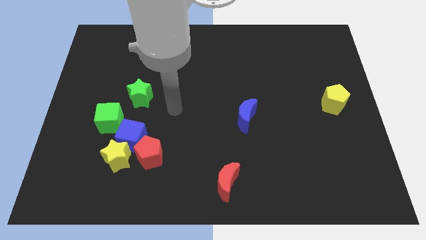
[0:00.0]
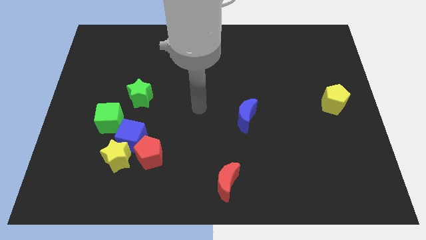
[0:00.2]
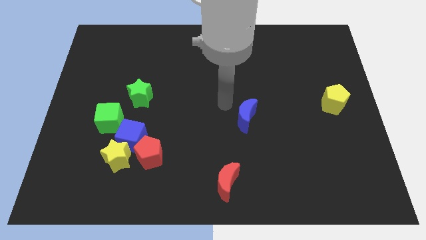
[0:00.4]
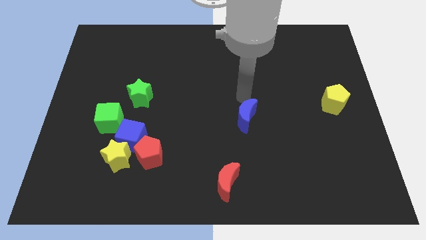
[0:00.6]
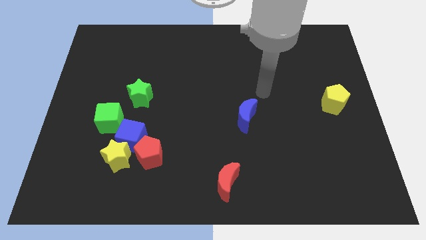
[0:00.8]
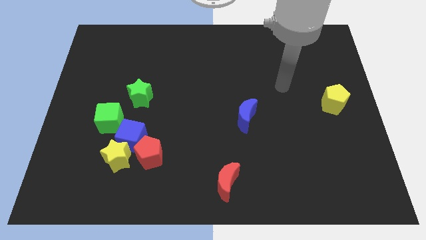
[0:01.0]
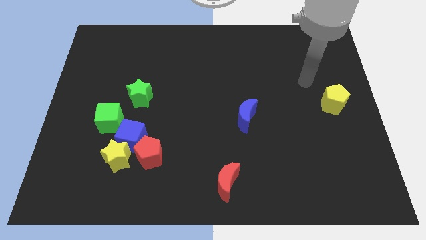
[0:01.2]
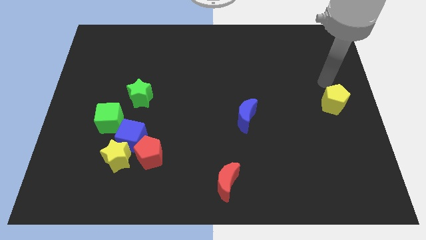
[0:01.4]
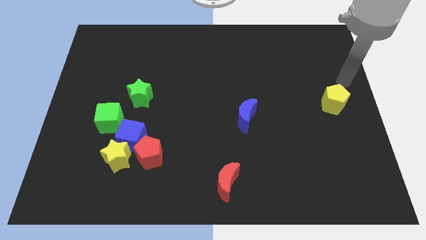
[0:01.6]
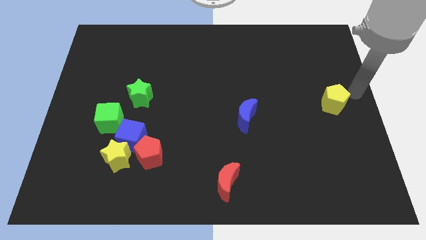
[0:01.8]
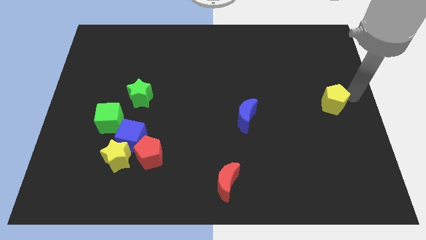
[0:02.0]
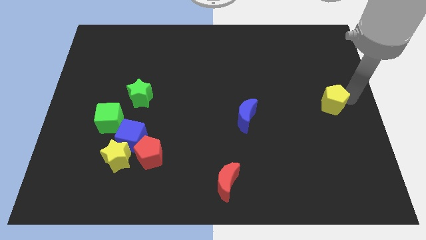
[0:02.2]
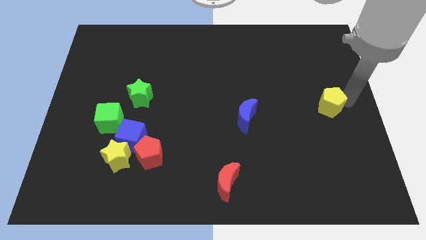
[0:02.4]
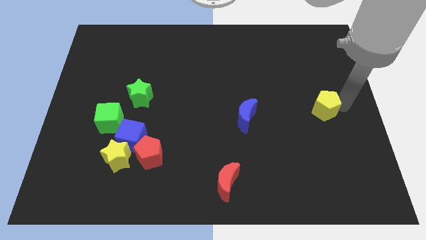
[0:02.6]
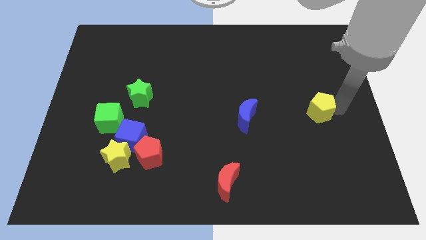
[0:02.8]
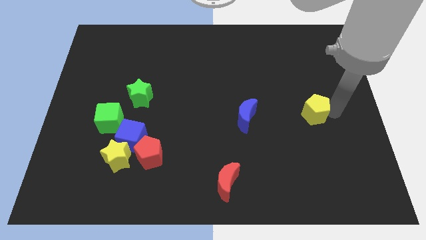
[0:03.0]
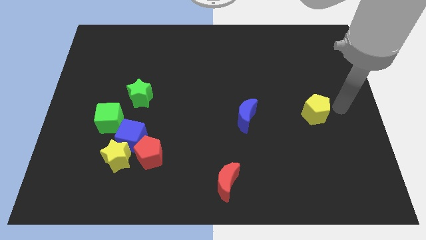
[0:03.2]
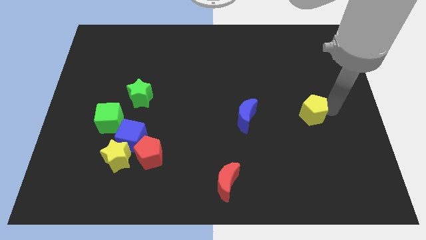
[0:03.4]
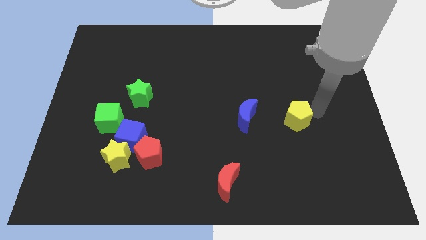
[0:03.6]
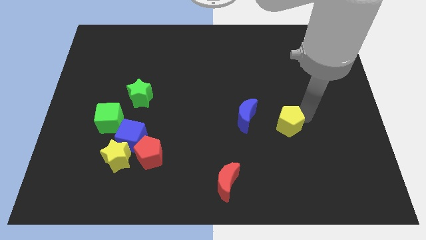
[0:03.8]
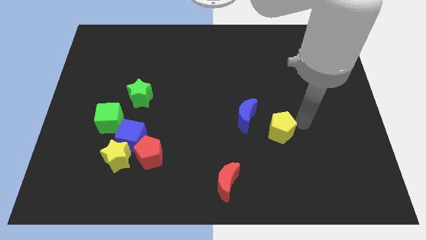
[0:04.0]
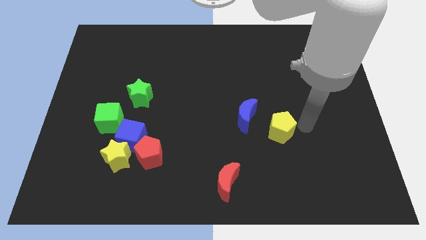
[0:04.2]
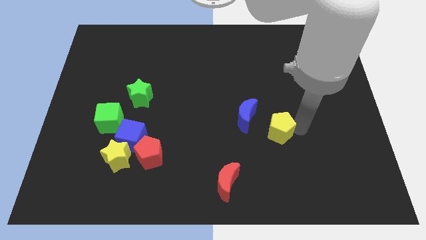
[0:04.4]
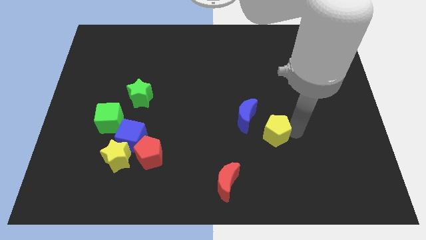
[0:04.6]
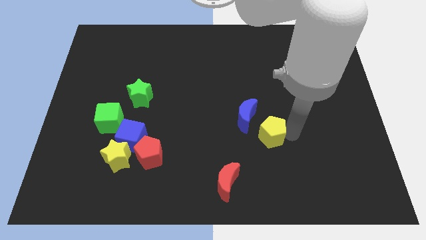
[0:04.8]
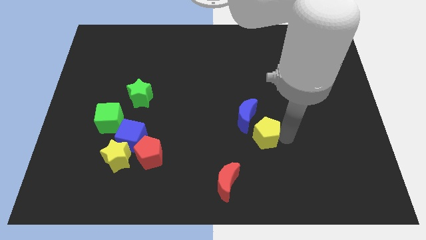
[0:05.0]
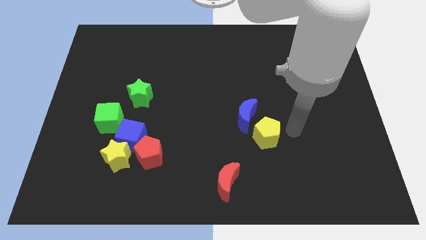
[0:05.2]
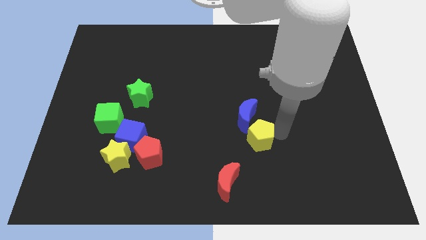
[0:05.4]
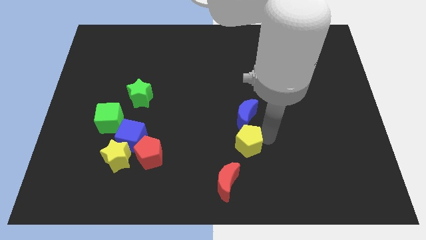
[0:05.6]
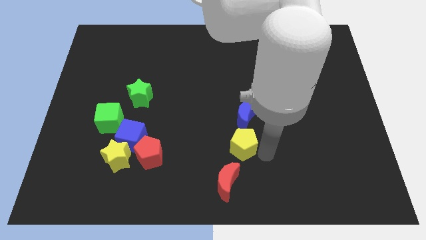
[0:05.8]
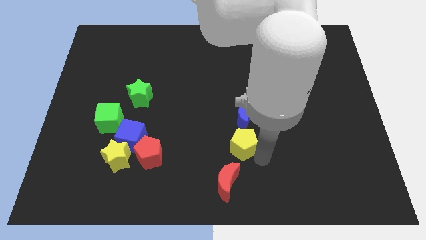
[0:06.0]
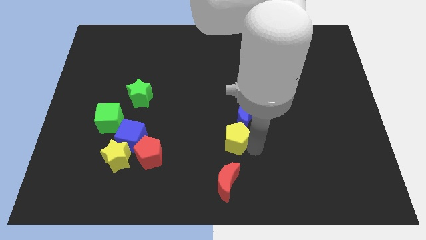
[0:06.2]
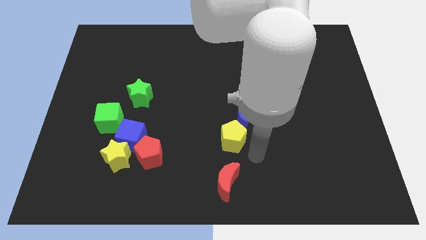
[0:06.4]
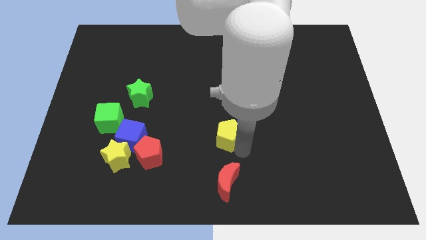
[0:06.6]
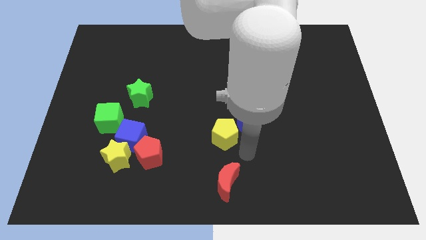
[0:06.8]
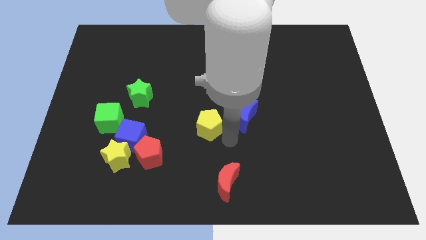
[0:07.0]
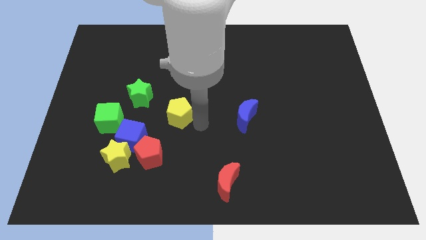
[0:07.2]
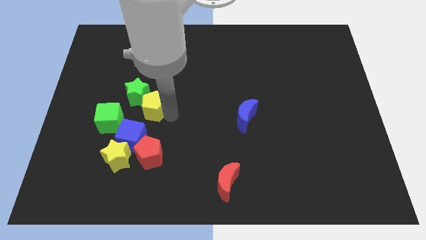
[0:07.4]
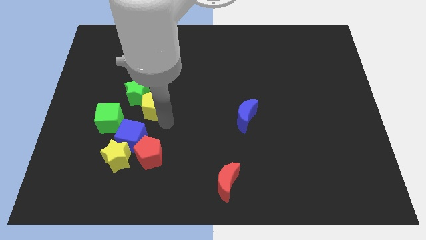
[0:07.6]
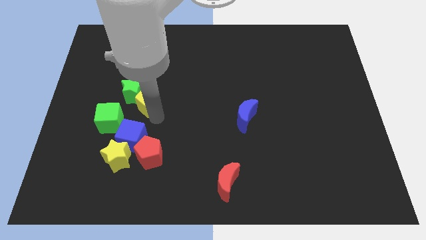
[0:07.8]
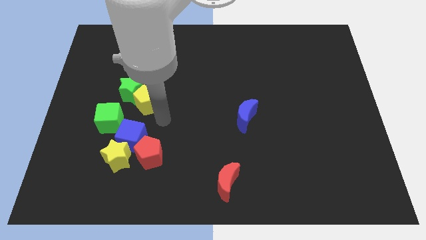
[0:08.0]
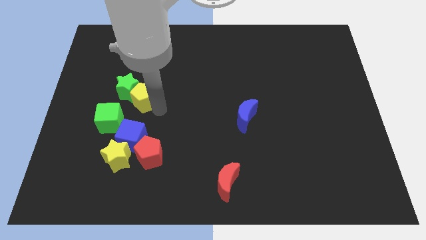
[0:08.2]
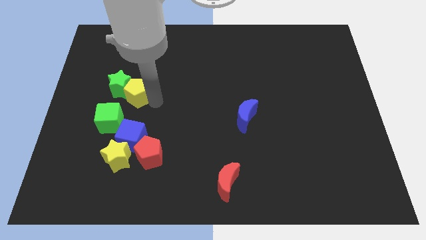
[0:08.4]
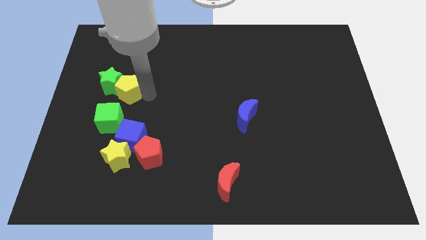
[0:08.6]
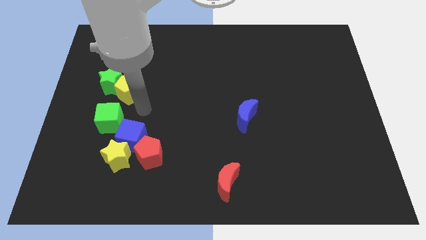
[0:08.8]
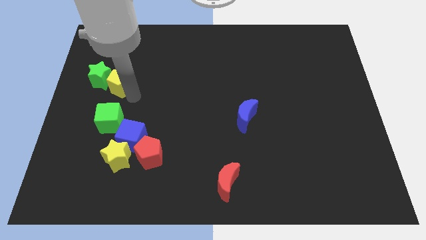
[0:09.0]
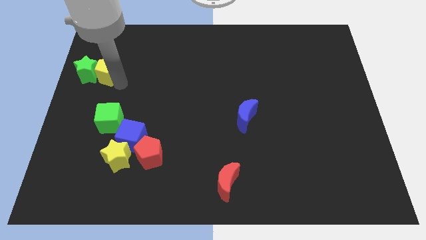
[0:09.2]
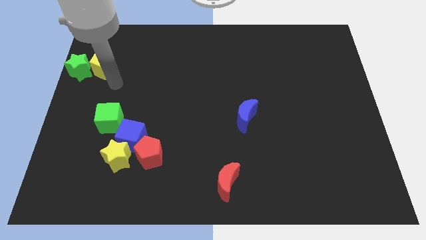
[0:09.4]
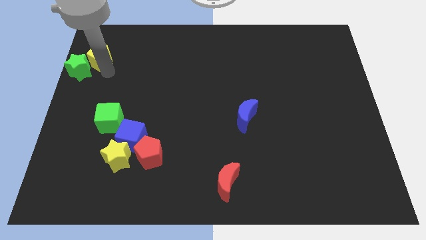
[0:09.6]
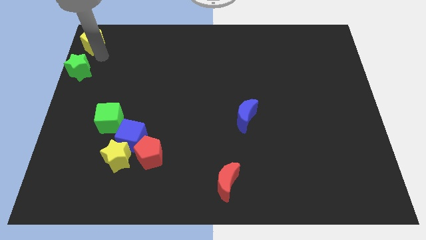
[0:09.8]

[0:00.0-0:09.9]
slide the yellow pentagon to the top left

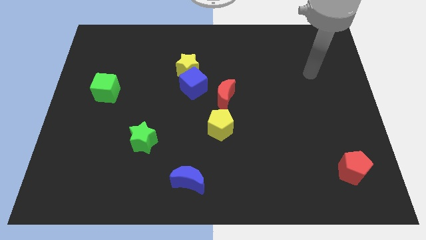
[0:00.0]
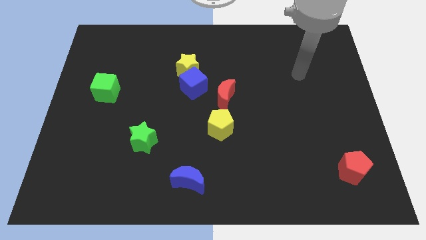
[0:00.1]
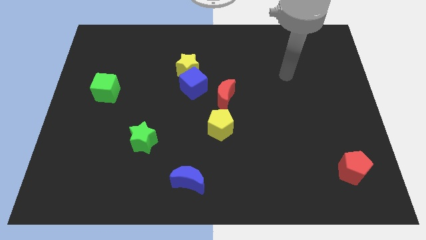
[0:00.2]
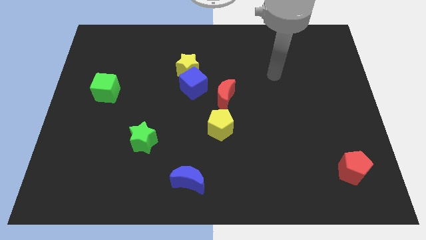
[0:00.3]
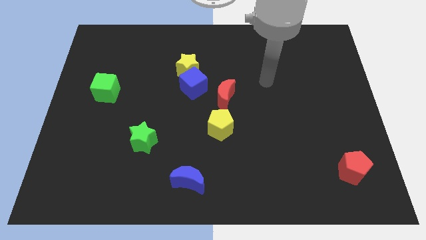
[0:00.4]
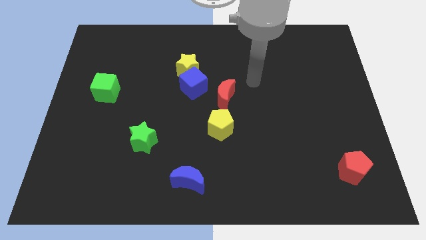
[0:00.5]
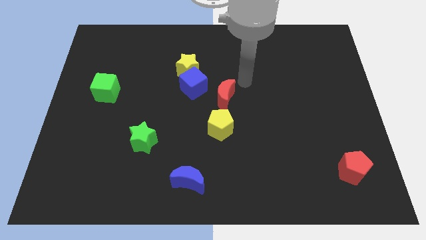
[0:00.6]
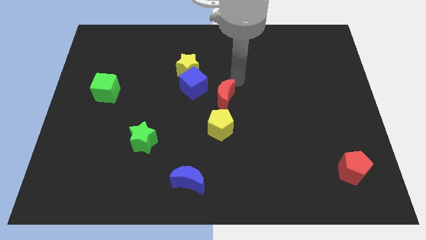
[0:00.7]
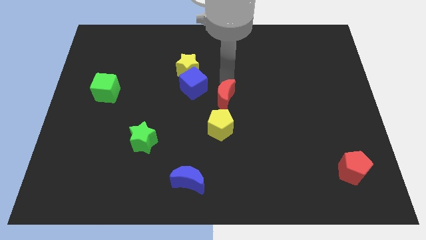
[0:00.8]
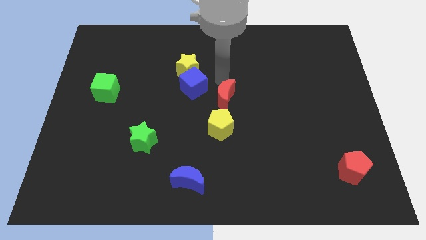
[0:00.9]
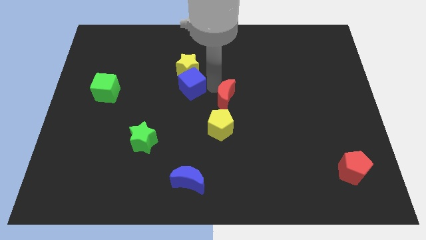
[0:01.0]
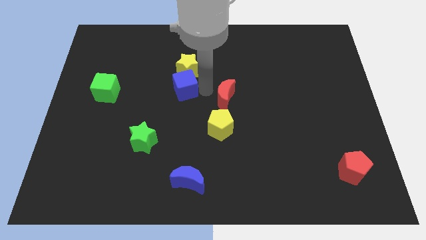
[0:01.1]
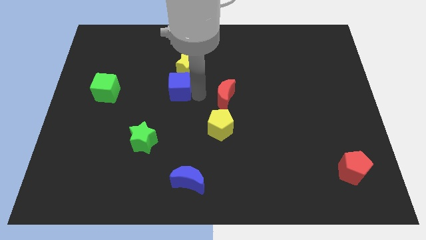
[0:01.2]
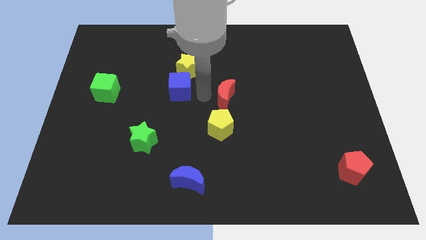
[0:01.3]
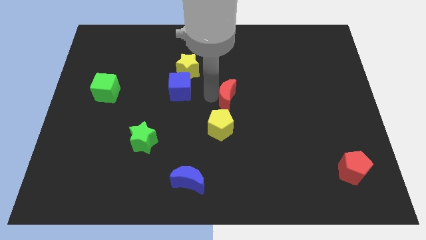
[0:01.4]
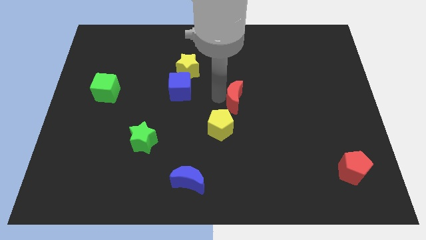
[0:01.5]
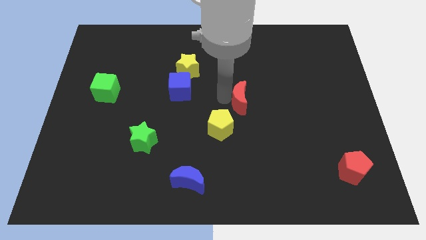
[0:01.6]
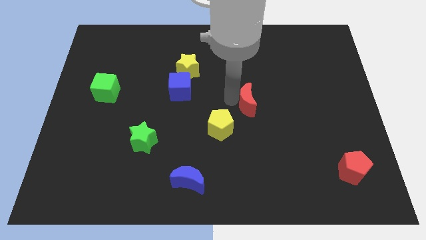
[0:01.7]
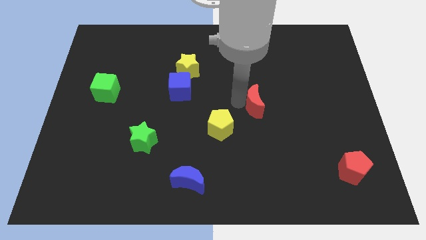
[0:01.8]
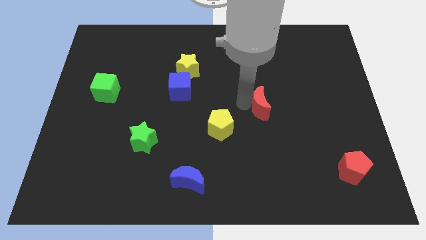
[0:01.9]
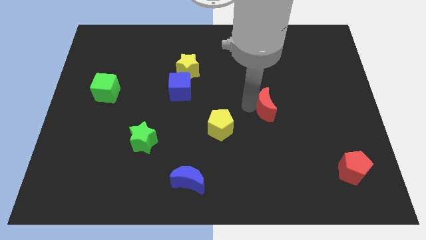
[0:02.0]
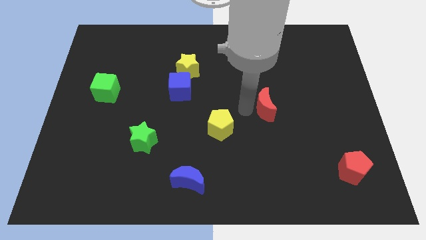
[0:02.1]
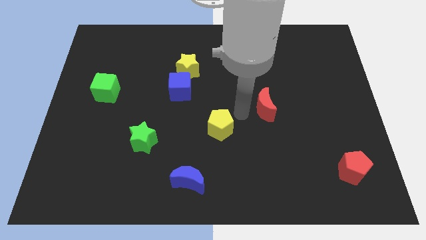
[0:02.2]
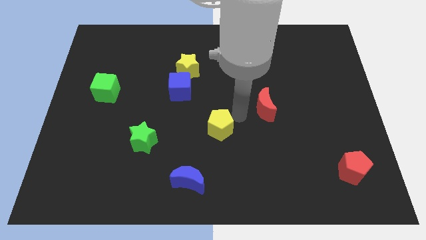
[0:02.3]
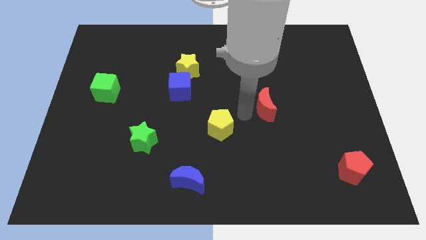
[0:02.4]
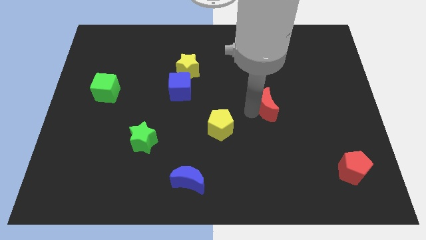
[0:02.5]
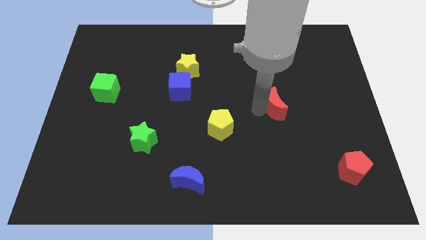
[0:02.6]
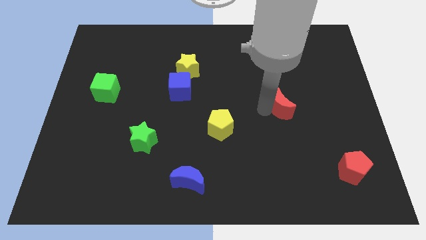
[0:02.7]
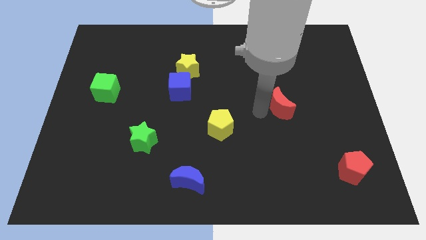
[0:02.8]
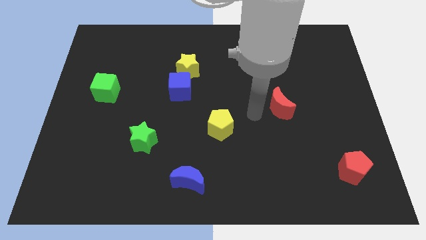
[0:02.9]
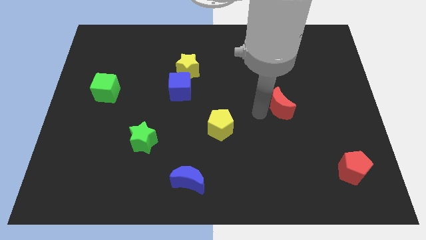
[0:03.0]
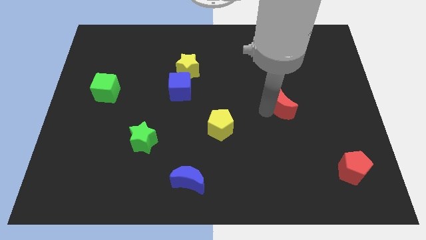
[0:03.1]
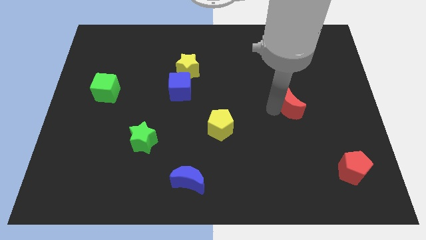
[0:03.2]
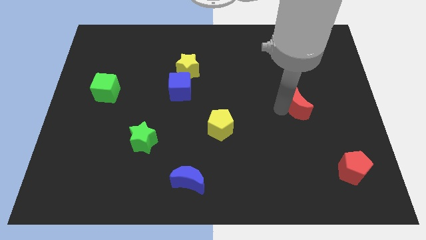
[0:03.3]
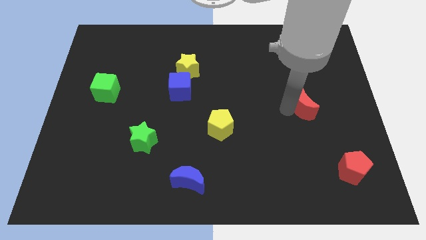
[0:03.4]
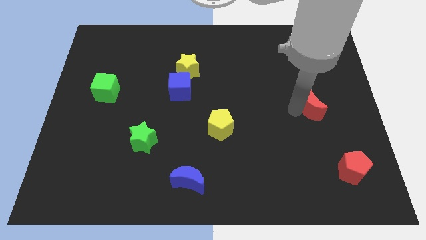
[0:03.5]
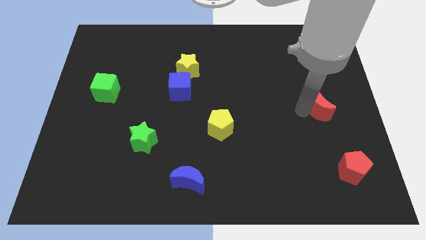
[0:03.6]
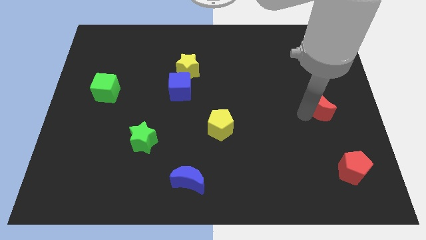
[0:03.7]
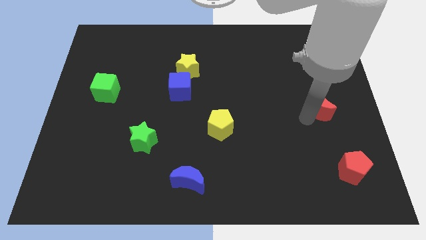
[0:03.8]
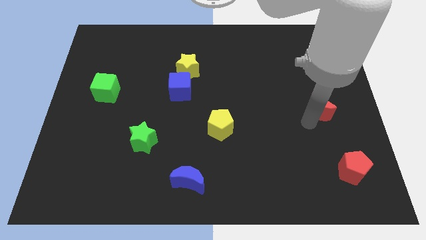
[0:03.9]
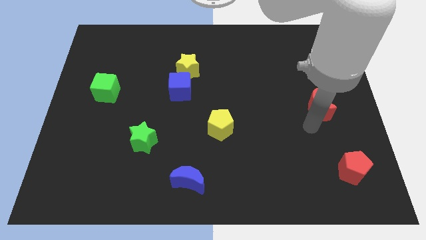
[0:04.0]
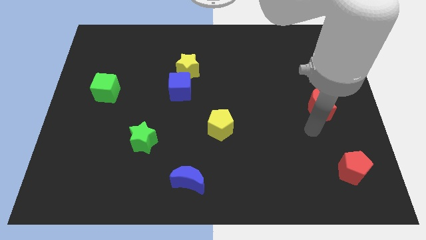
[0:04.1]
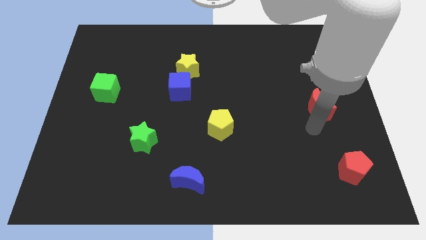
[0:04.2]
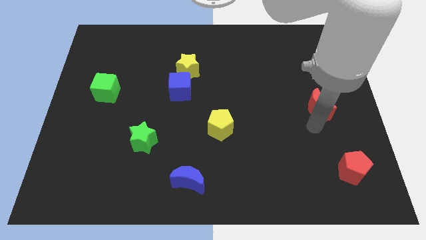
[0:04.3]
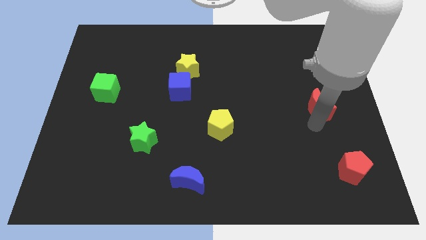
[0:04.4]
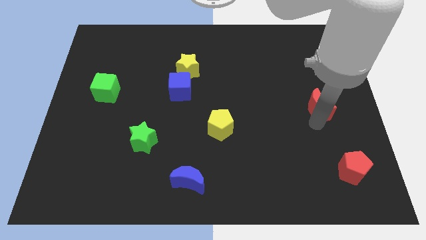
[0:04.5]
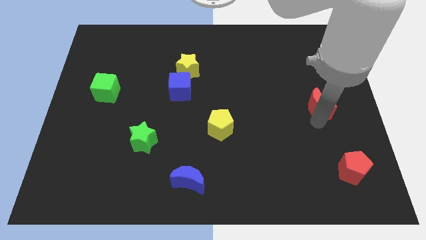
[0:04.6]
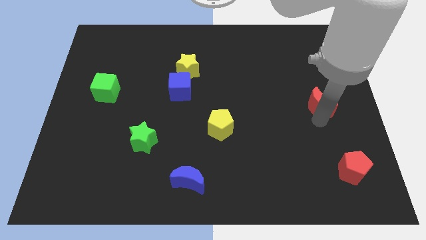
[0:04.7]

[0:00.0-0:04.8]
push the red moon to the right side of the board
